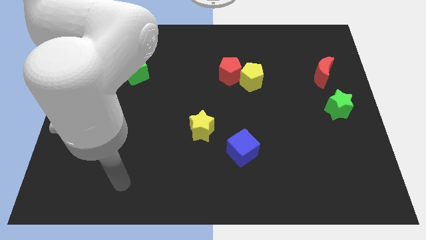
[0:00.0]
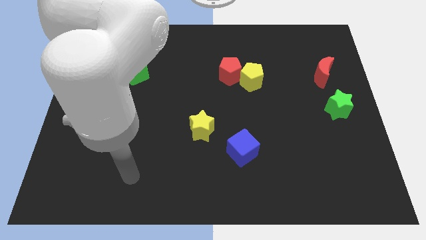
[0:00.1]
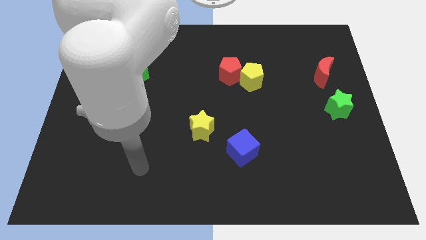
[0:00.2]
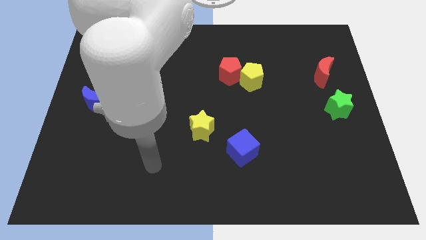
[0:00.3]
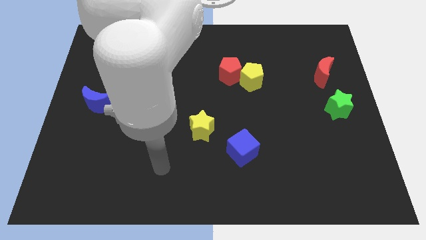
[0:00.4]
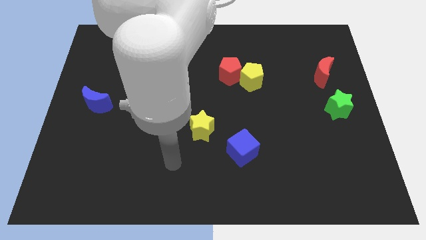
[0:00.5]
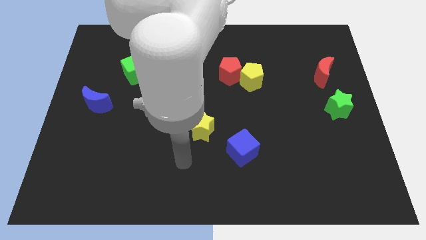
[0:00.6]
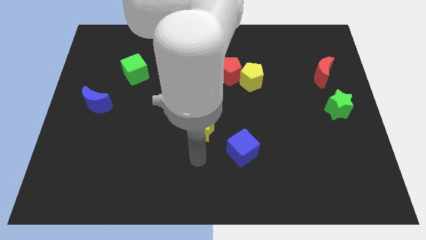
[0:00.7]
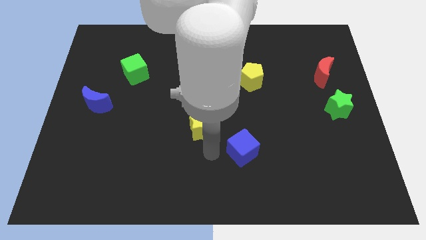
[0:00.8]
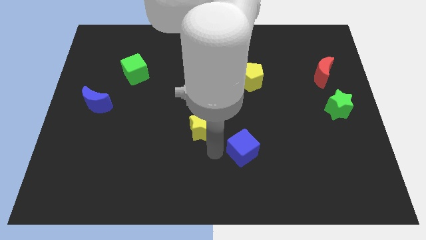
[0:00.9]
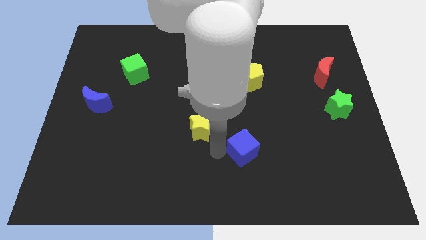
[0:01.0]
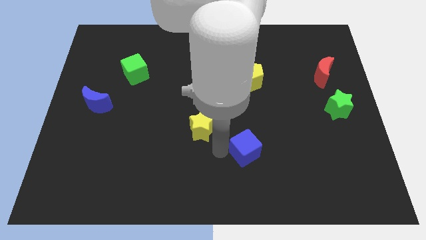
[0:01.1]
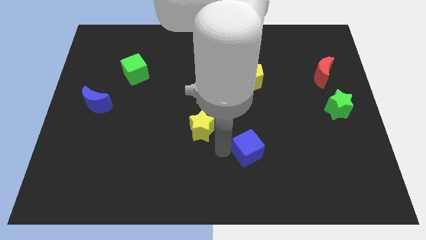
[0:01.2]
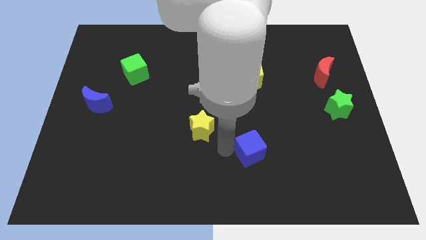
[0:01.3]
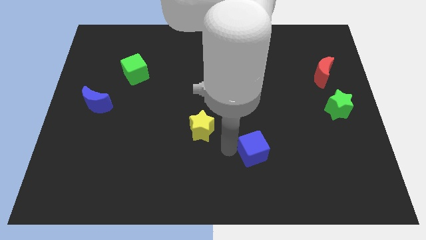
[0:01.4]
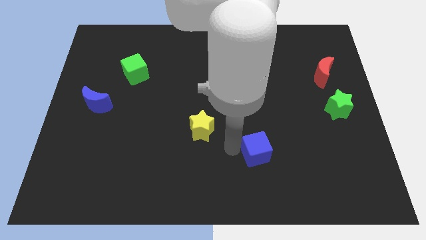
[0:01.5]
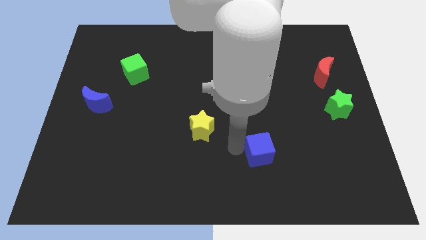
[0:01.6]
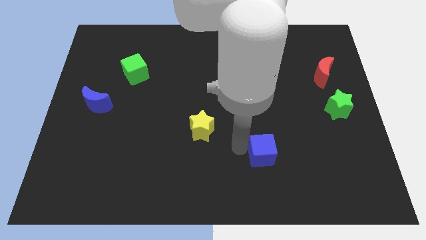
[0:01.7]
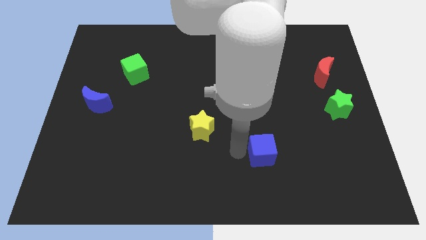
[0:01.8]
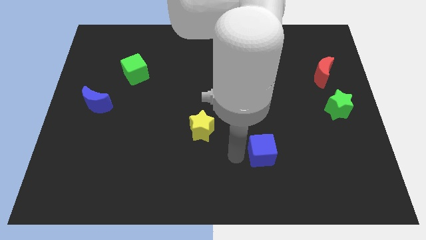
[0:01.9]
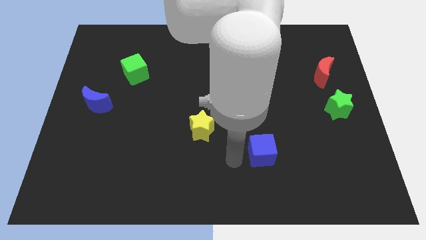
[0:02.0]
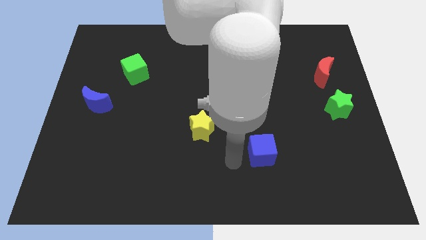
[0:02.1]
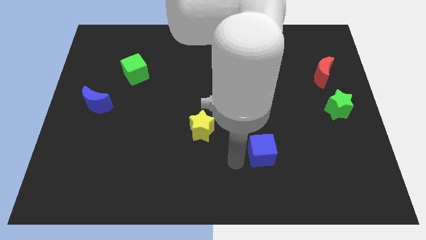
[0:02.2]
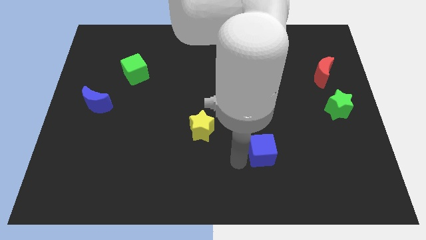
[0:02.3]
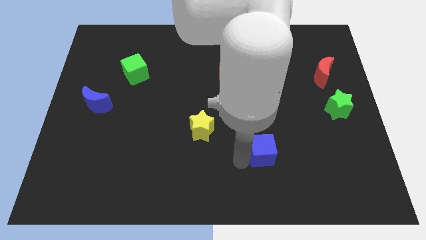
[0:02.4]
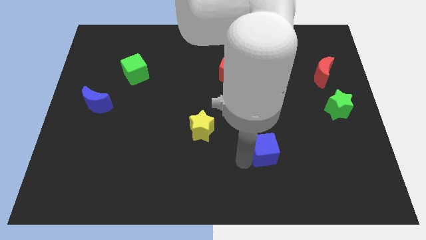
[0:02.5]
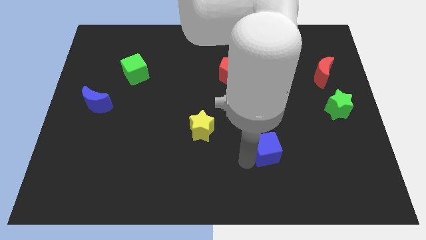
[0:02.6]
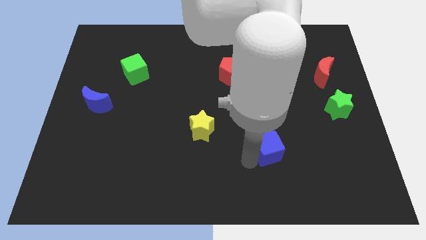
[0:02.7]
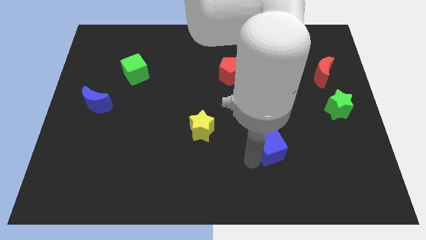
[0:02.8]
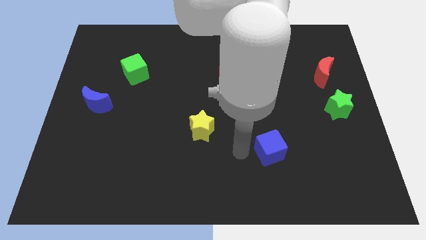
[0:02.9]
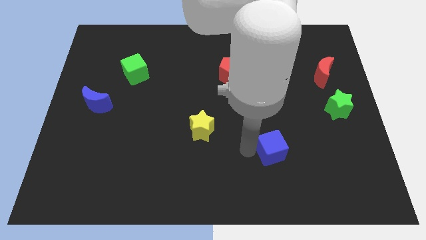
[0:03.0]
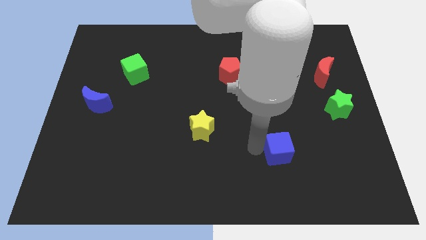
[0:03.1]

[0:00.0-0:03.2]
slightly slide the blue cube right

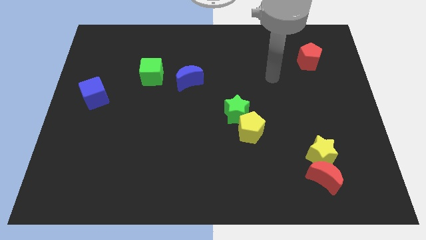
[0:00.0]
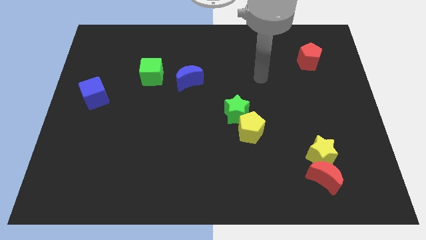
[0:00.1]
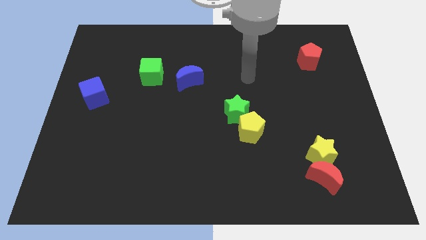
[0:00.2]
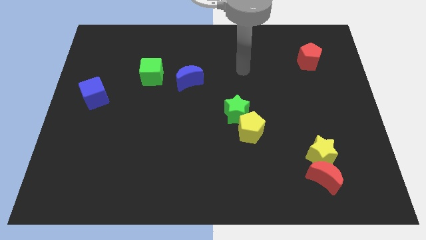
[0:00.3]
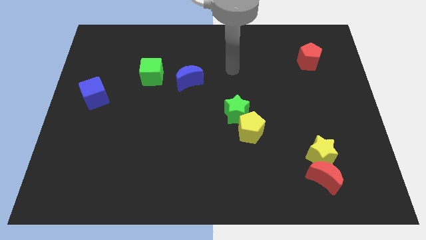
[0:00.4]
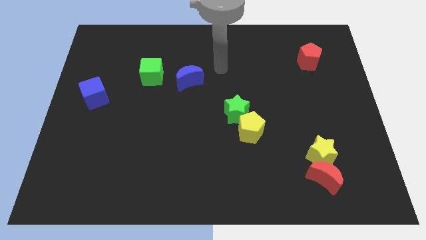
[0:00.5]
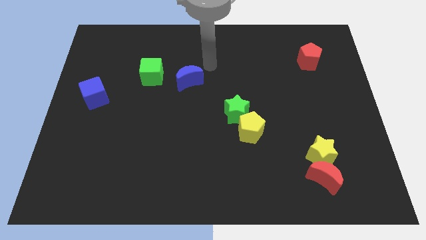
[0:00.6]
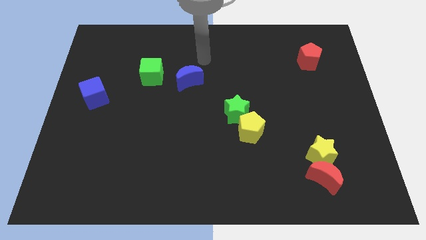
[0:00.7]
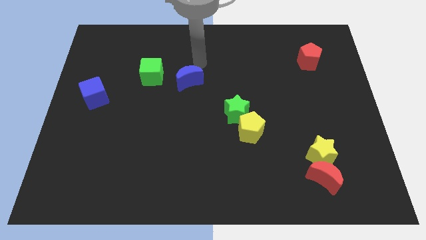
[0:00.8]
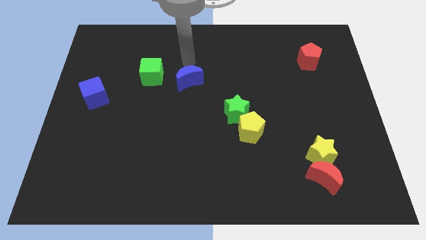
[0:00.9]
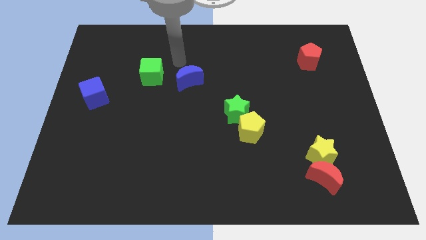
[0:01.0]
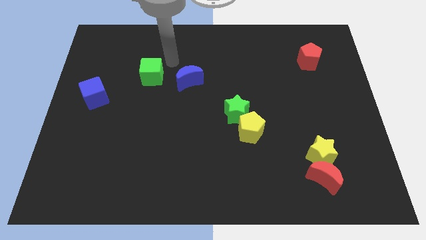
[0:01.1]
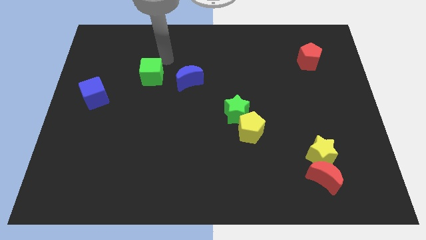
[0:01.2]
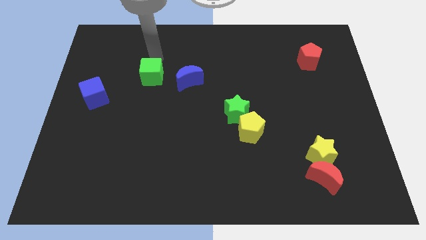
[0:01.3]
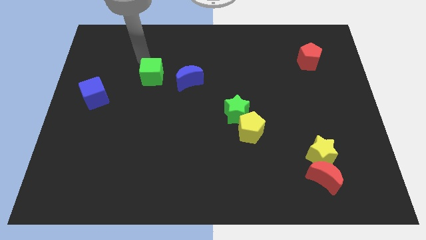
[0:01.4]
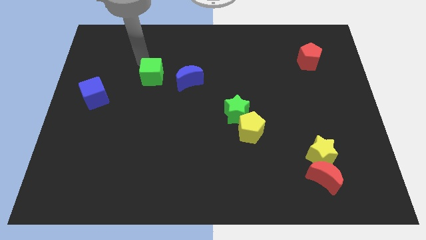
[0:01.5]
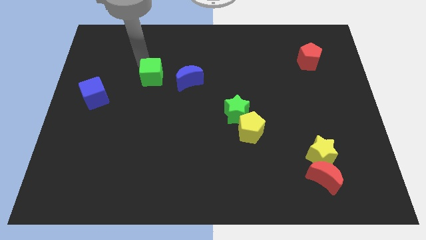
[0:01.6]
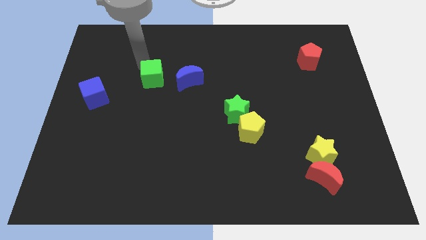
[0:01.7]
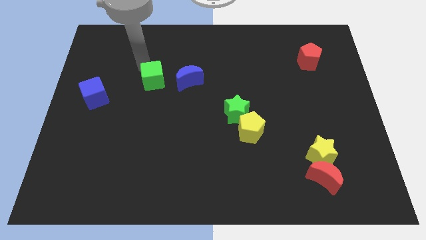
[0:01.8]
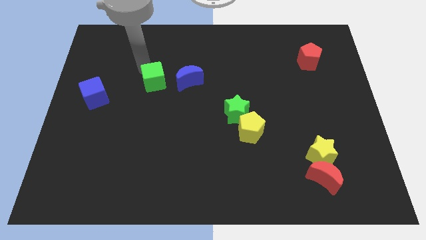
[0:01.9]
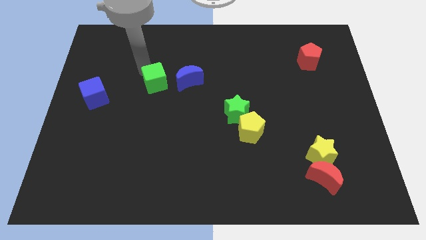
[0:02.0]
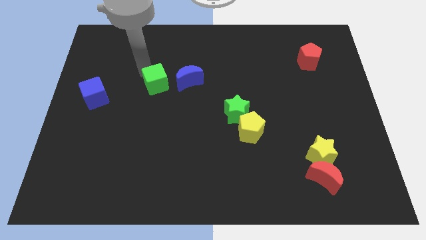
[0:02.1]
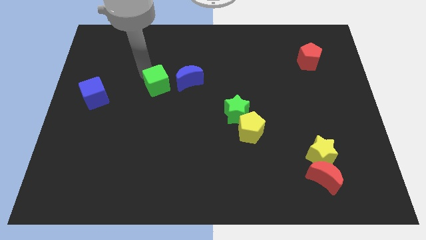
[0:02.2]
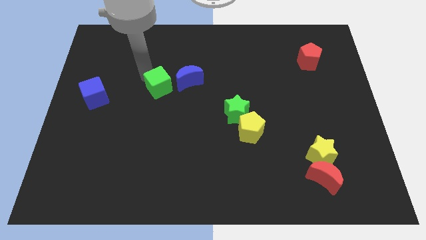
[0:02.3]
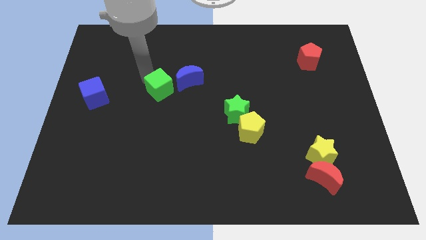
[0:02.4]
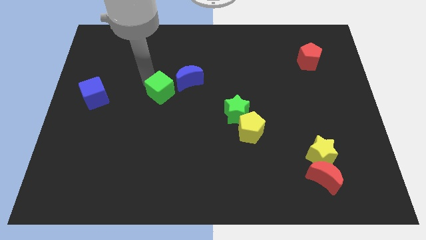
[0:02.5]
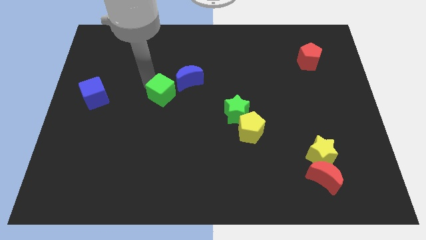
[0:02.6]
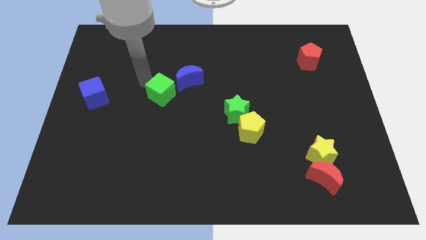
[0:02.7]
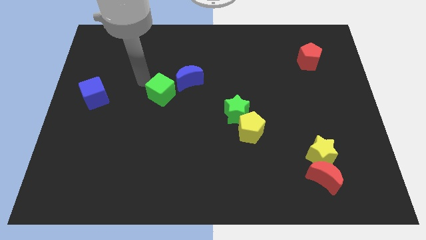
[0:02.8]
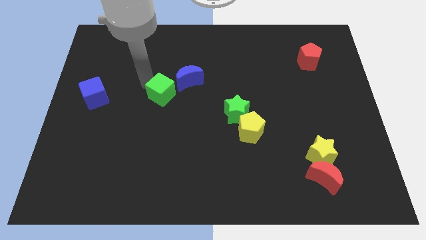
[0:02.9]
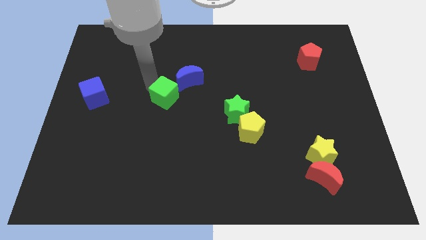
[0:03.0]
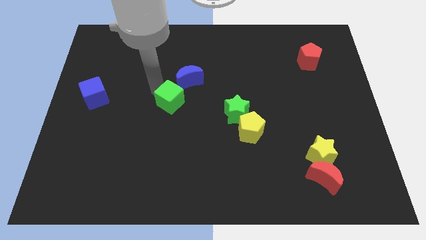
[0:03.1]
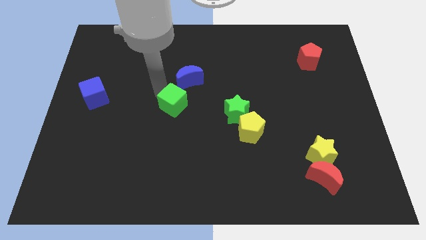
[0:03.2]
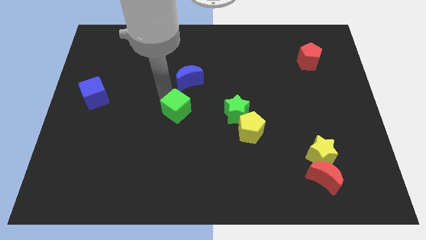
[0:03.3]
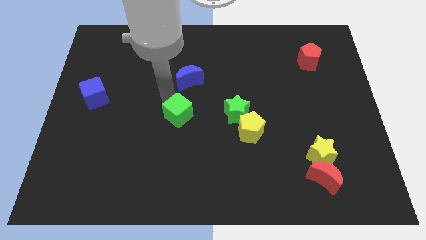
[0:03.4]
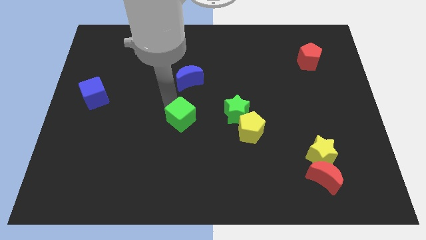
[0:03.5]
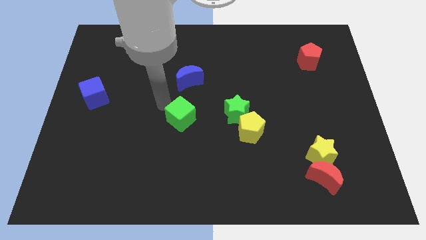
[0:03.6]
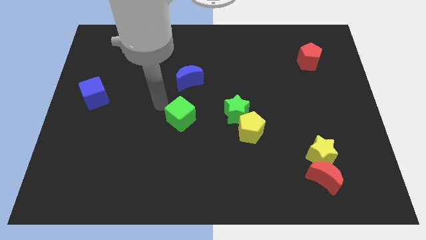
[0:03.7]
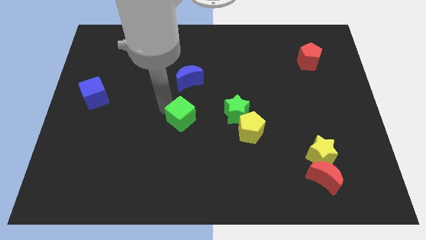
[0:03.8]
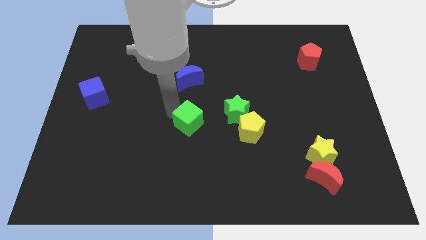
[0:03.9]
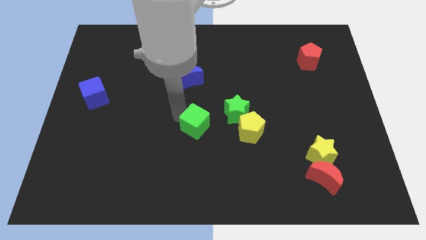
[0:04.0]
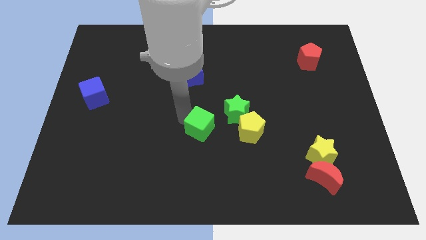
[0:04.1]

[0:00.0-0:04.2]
move the green cube down and to the right

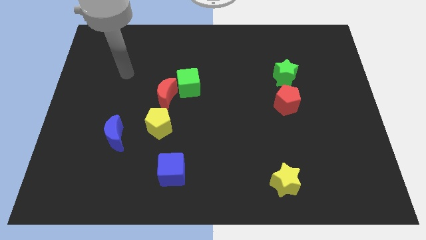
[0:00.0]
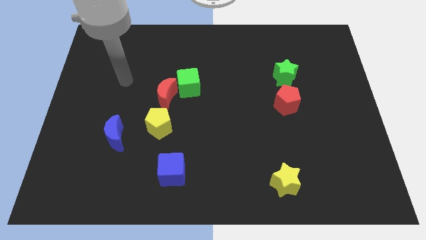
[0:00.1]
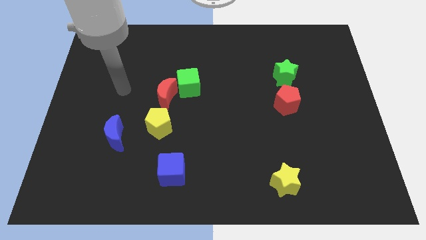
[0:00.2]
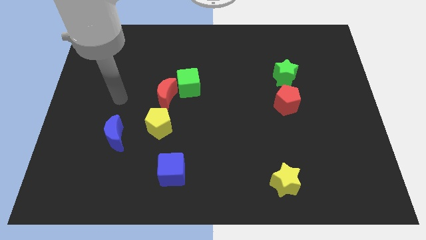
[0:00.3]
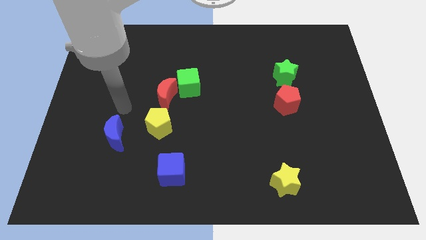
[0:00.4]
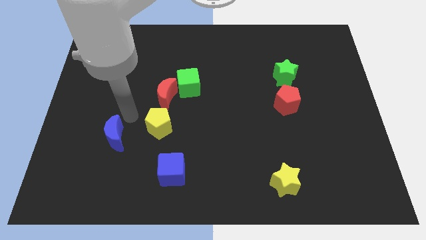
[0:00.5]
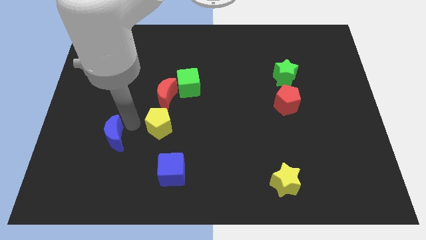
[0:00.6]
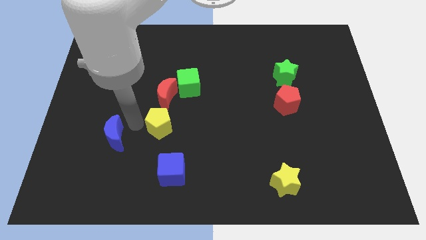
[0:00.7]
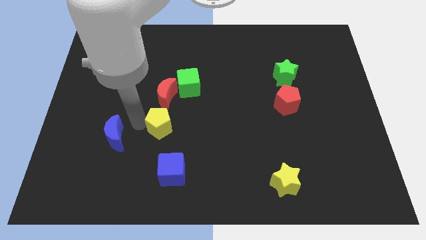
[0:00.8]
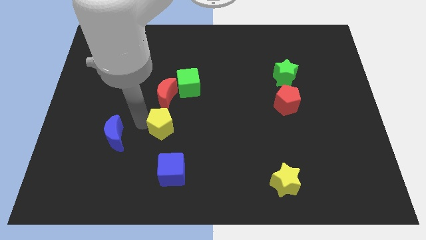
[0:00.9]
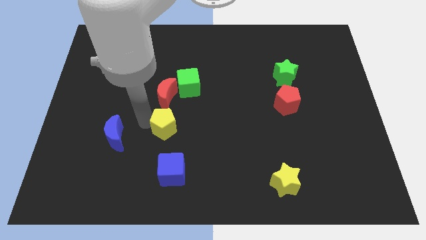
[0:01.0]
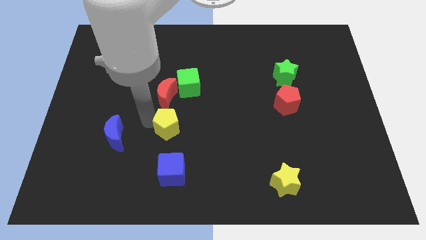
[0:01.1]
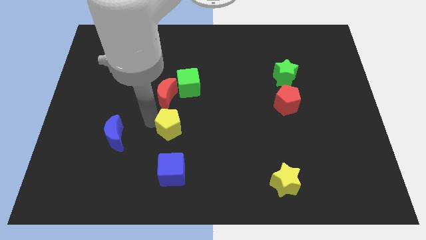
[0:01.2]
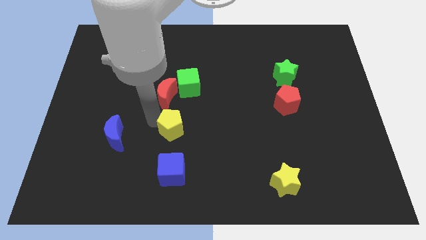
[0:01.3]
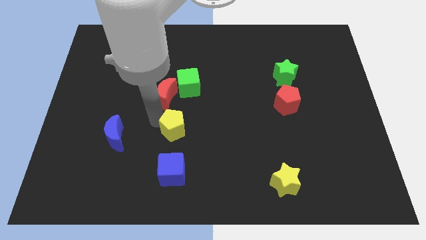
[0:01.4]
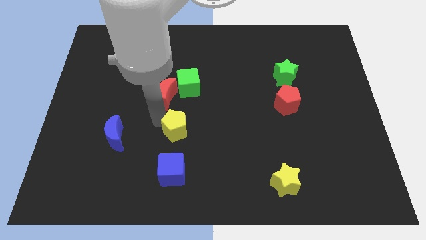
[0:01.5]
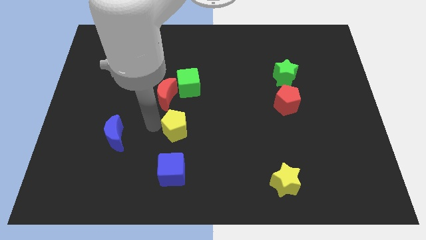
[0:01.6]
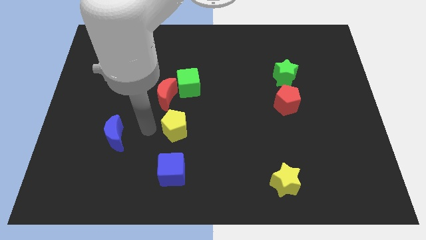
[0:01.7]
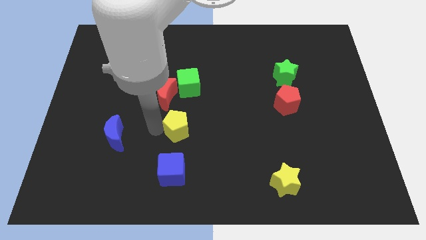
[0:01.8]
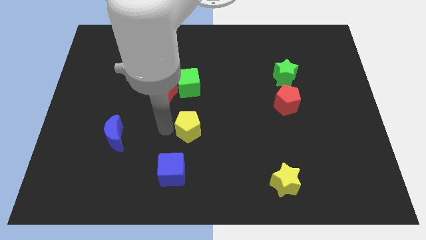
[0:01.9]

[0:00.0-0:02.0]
move the yellow pentagon a bit right
